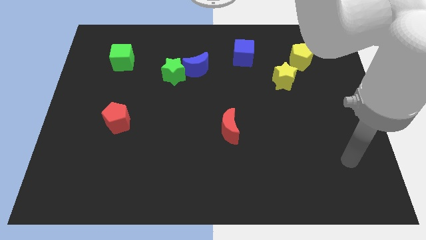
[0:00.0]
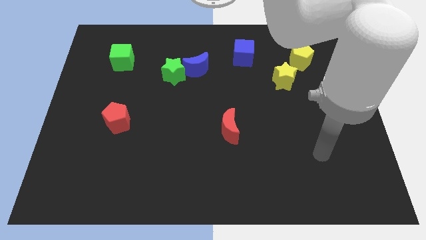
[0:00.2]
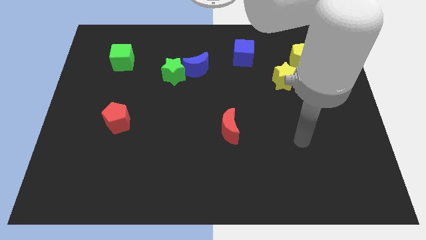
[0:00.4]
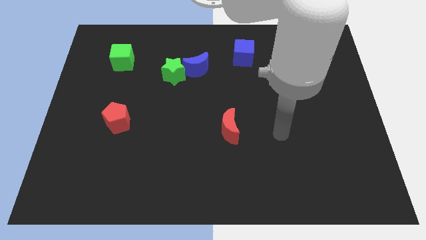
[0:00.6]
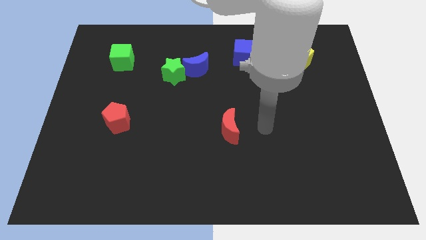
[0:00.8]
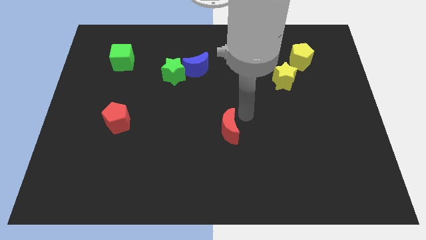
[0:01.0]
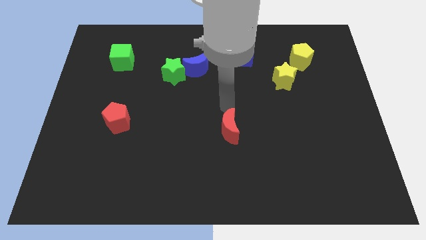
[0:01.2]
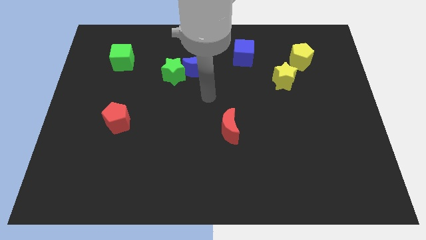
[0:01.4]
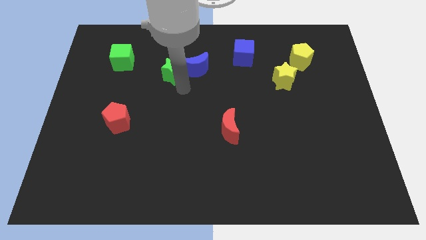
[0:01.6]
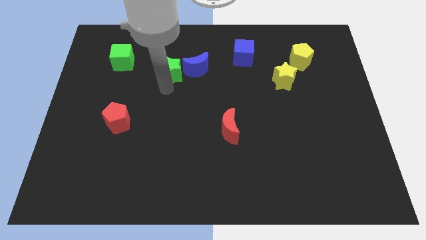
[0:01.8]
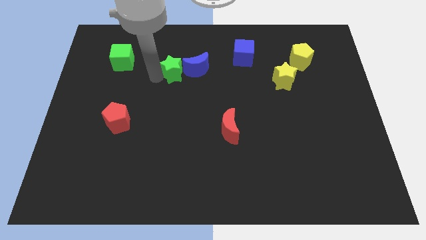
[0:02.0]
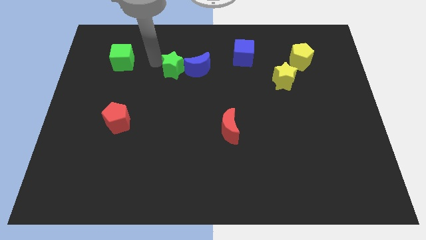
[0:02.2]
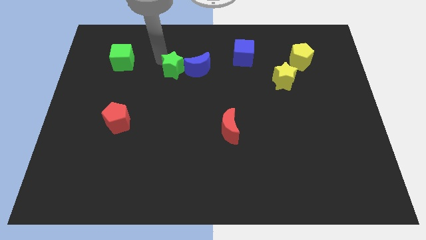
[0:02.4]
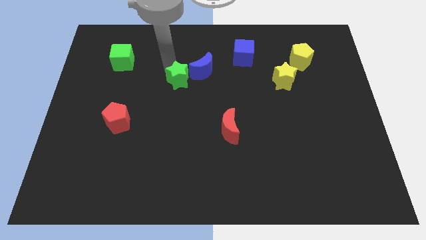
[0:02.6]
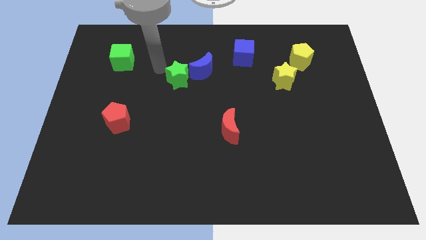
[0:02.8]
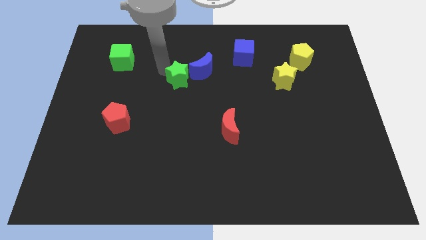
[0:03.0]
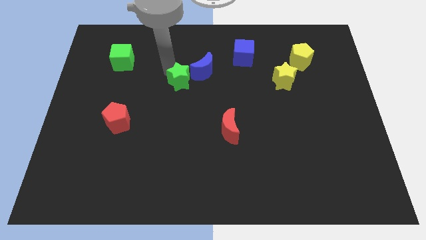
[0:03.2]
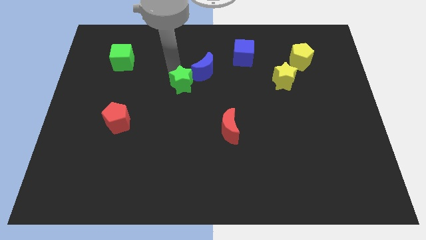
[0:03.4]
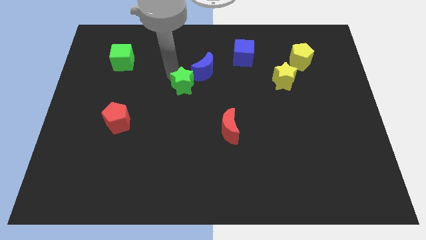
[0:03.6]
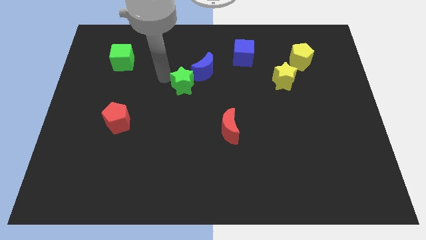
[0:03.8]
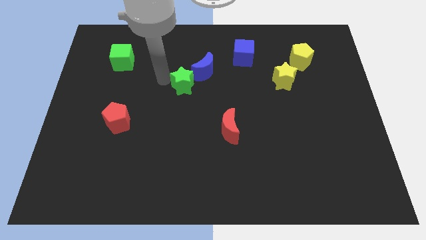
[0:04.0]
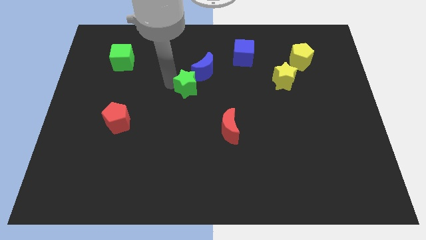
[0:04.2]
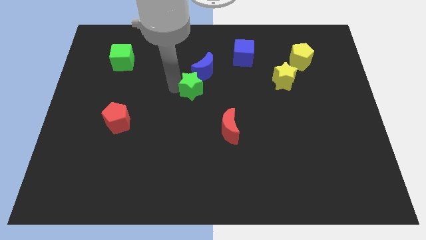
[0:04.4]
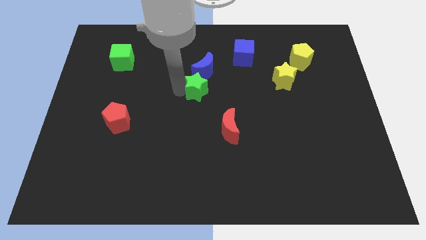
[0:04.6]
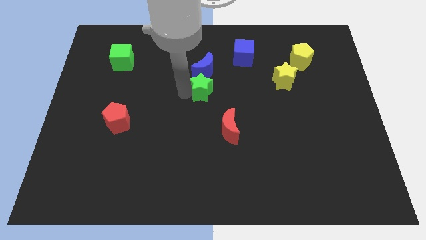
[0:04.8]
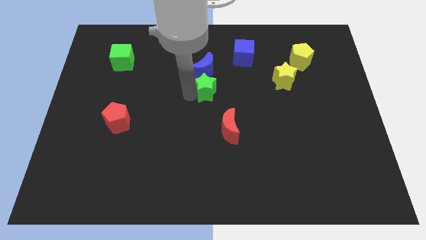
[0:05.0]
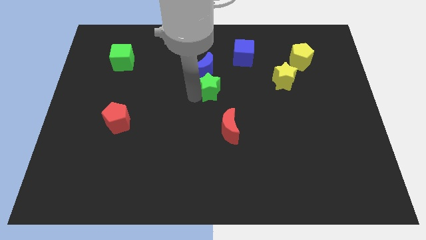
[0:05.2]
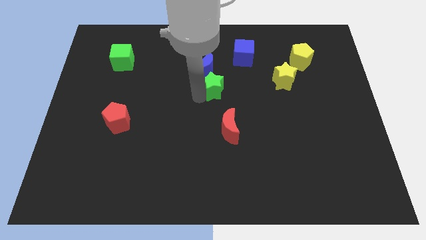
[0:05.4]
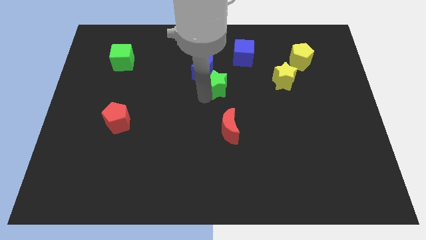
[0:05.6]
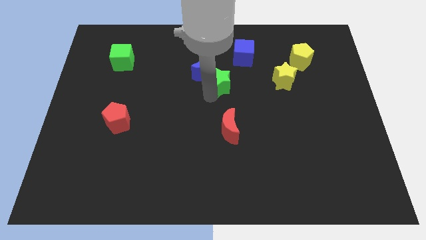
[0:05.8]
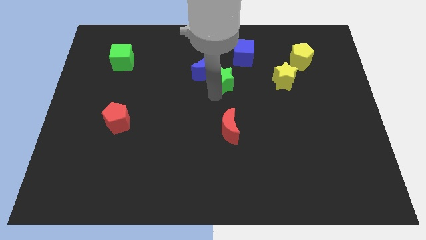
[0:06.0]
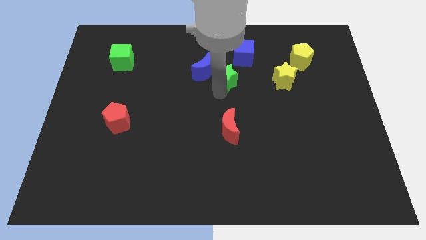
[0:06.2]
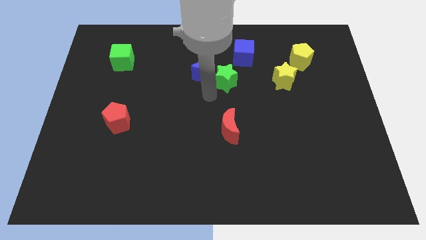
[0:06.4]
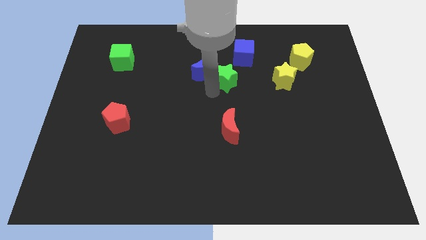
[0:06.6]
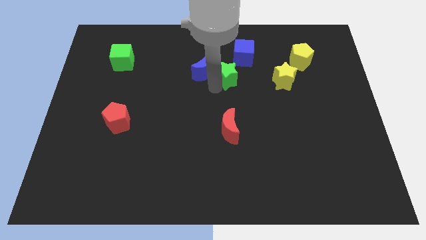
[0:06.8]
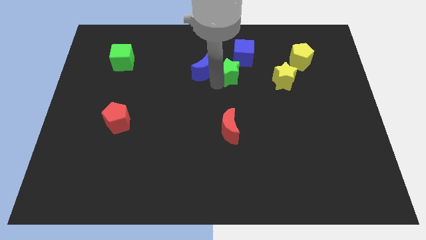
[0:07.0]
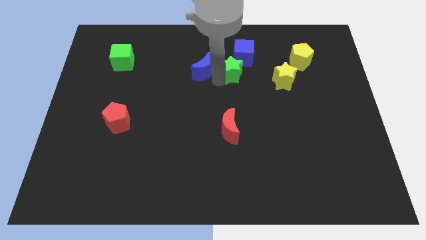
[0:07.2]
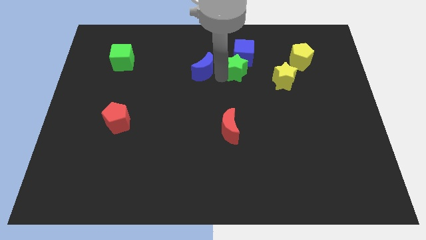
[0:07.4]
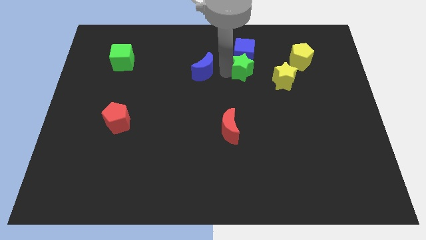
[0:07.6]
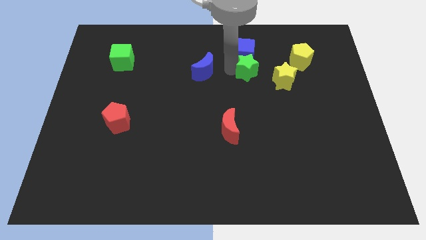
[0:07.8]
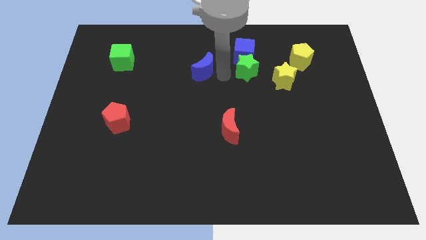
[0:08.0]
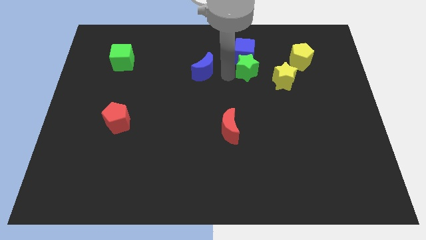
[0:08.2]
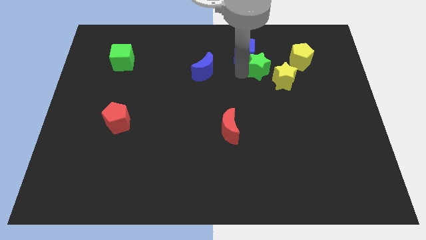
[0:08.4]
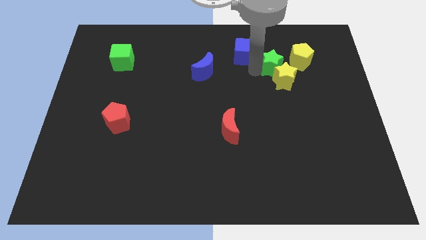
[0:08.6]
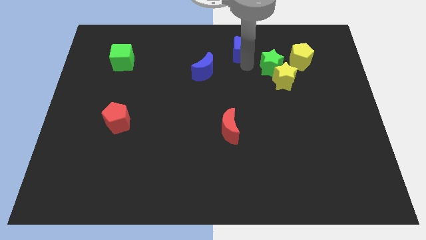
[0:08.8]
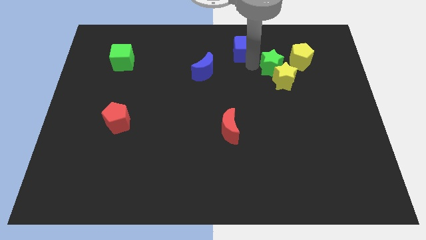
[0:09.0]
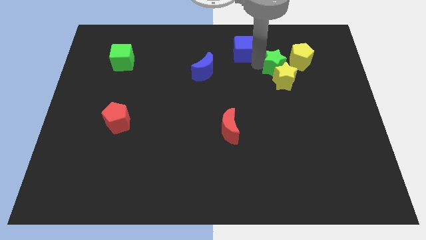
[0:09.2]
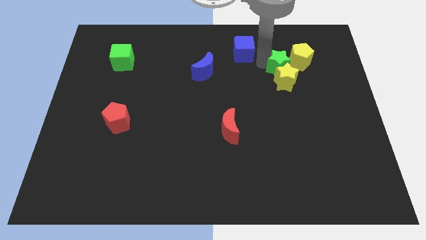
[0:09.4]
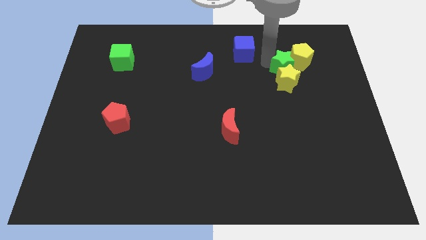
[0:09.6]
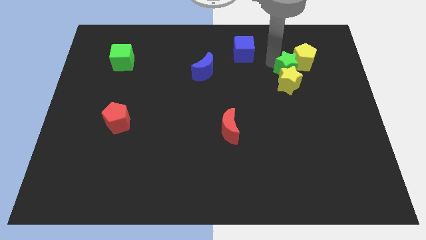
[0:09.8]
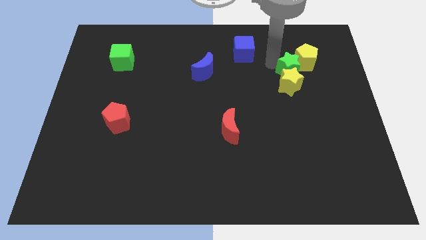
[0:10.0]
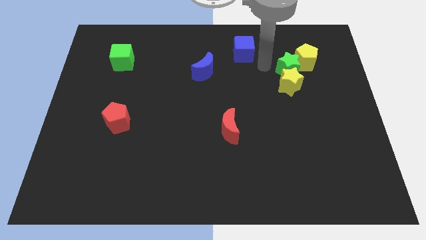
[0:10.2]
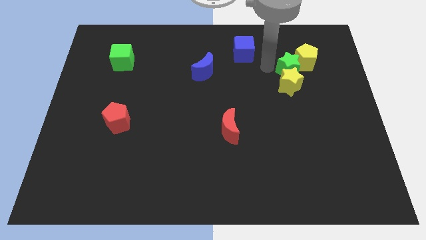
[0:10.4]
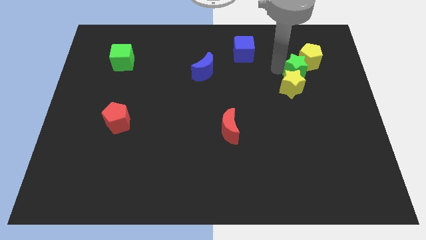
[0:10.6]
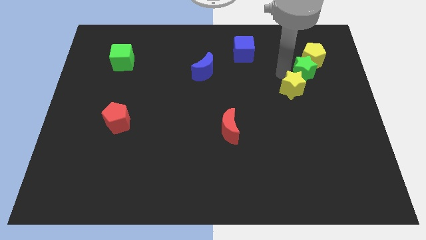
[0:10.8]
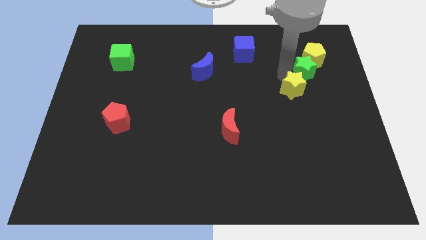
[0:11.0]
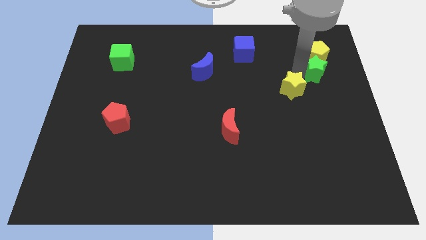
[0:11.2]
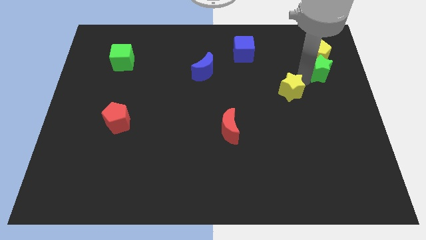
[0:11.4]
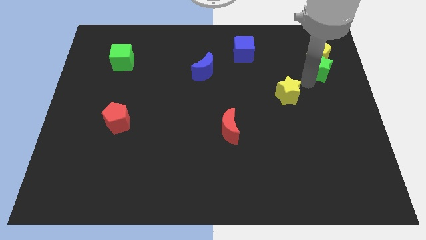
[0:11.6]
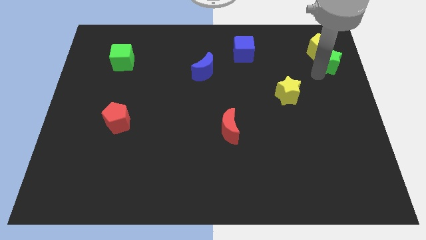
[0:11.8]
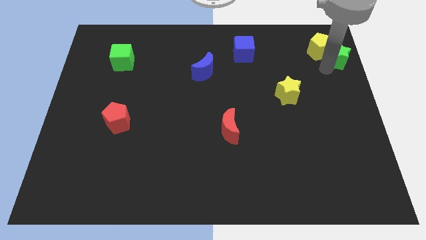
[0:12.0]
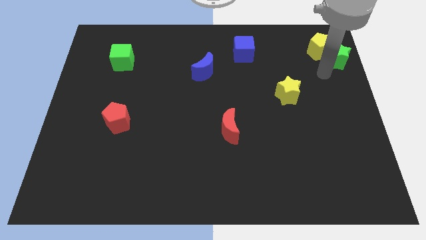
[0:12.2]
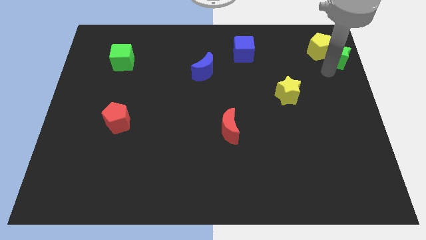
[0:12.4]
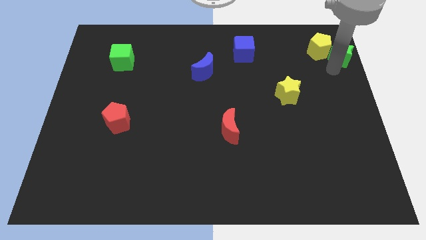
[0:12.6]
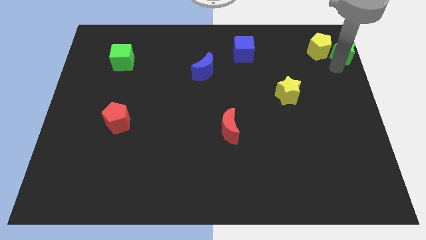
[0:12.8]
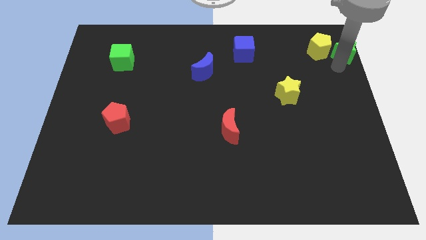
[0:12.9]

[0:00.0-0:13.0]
move the green star to the upper right corner
